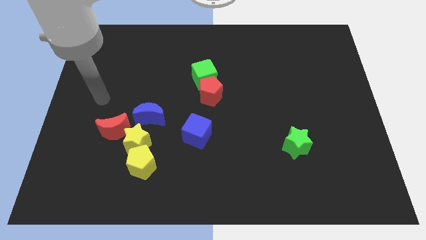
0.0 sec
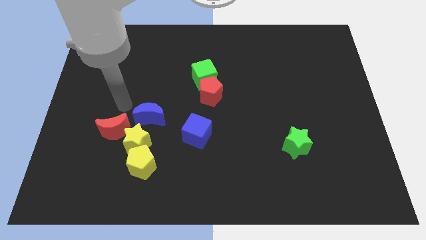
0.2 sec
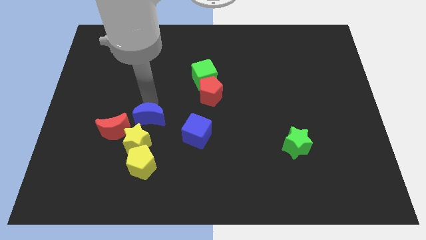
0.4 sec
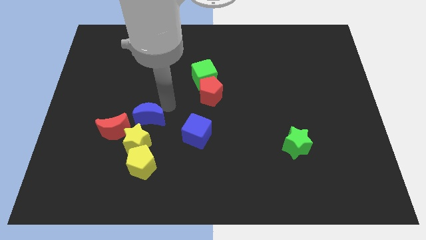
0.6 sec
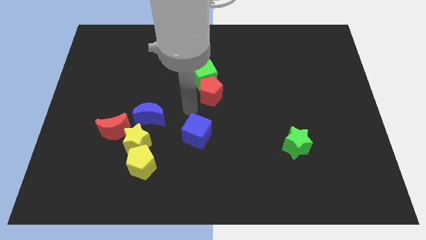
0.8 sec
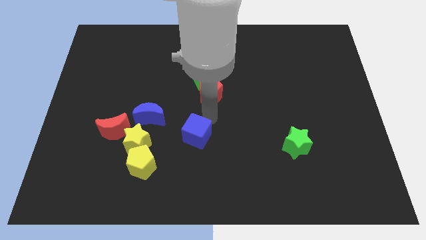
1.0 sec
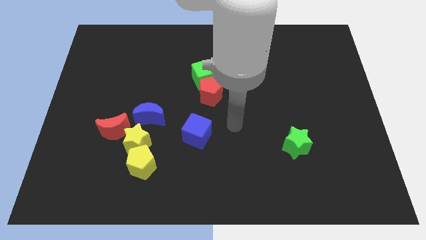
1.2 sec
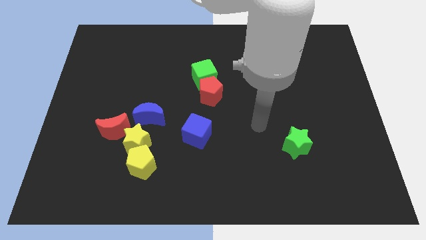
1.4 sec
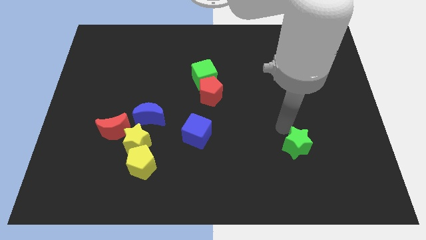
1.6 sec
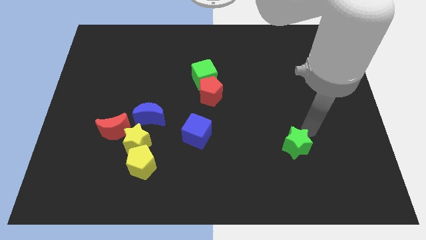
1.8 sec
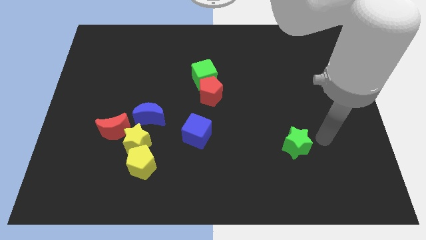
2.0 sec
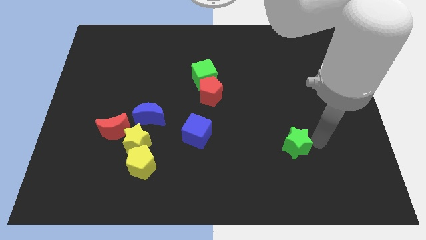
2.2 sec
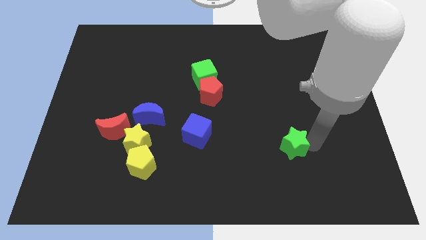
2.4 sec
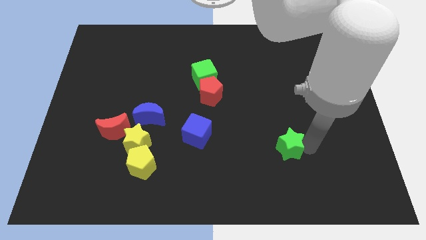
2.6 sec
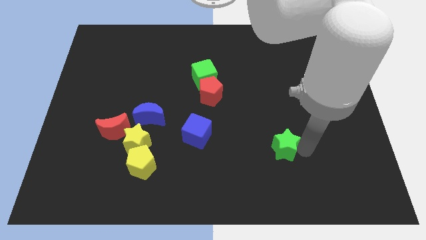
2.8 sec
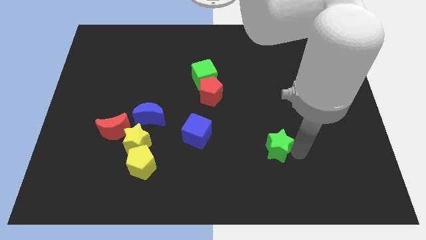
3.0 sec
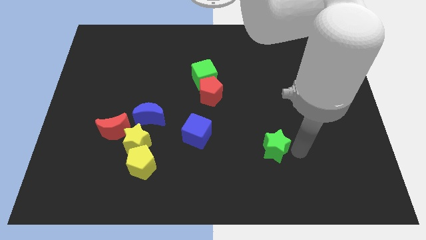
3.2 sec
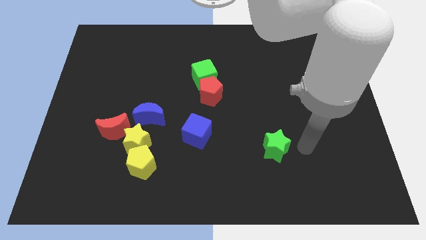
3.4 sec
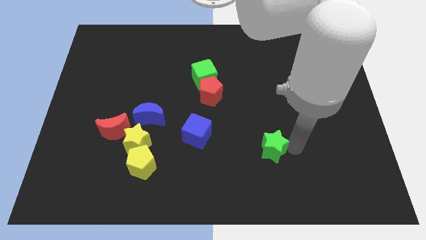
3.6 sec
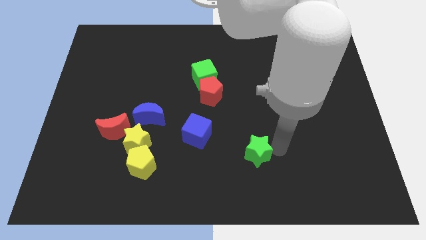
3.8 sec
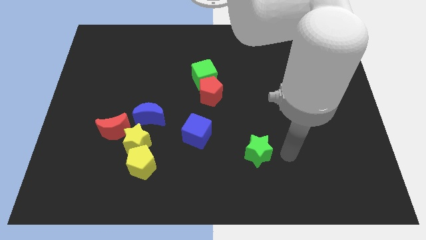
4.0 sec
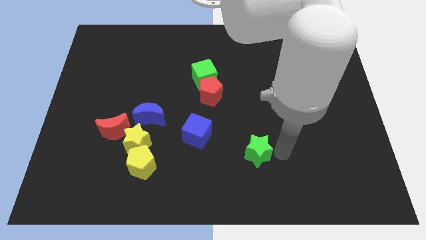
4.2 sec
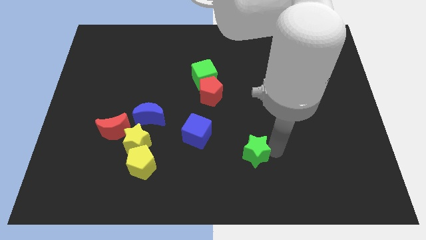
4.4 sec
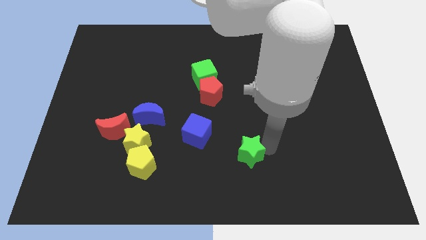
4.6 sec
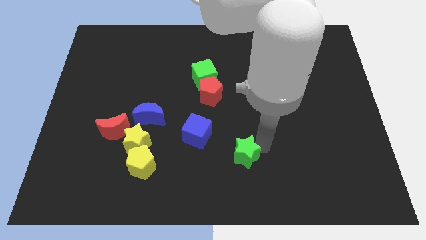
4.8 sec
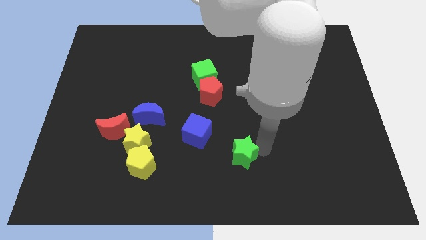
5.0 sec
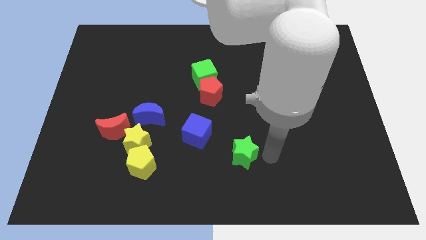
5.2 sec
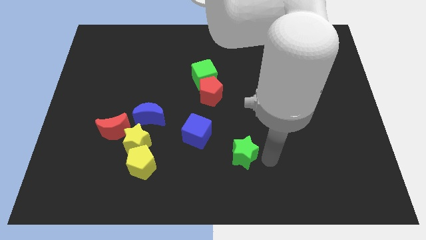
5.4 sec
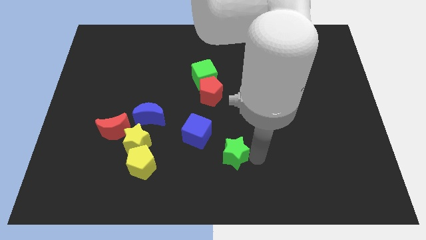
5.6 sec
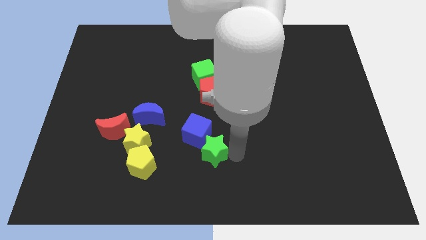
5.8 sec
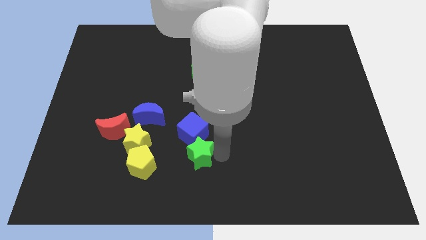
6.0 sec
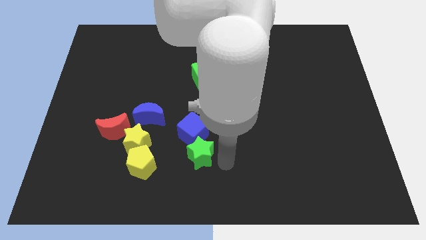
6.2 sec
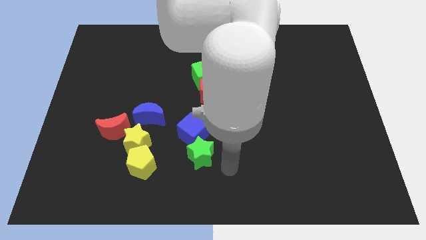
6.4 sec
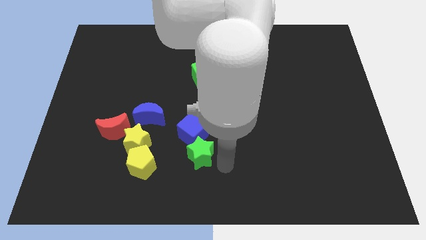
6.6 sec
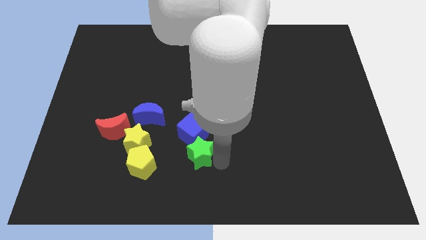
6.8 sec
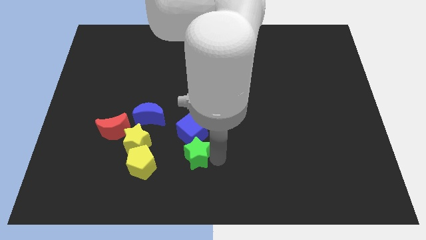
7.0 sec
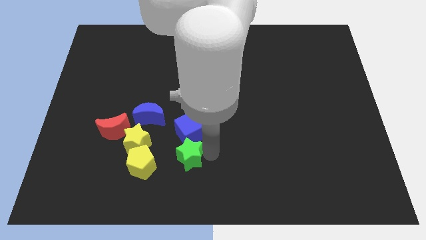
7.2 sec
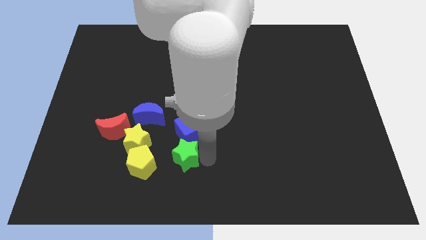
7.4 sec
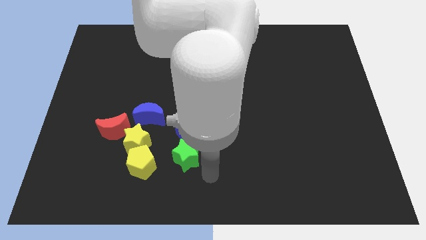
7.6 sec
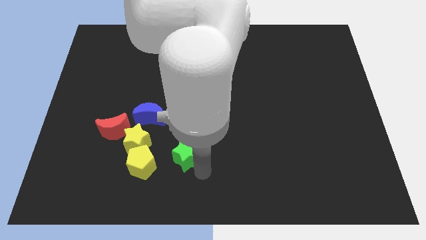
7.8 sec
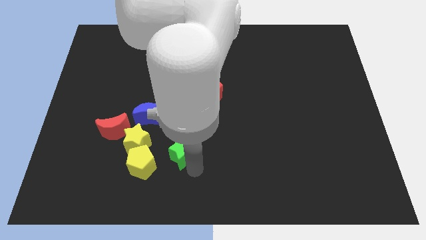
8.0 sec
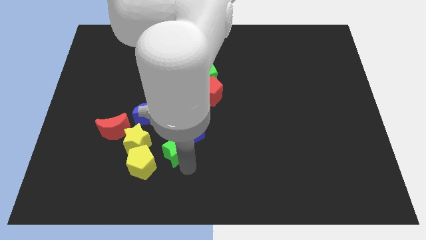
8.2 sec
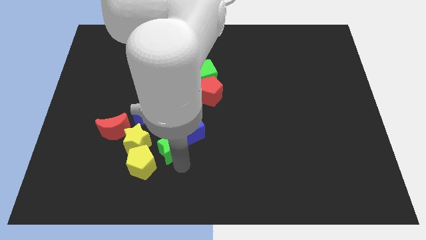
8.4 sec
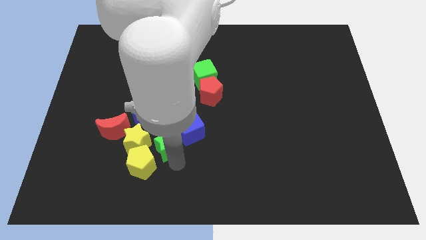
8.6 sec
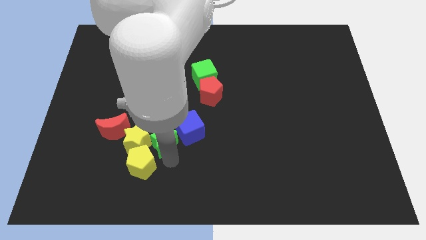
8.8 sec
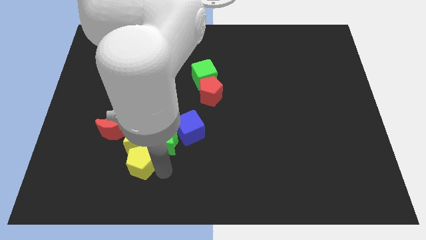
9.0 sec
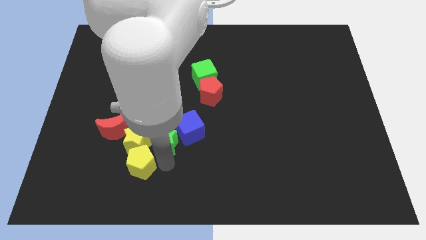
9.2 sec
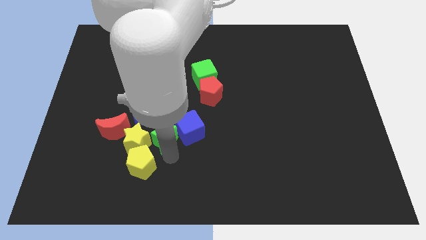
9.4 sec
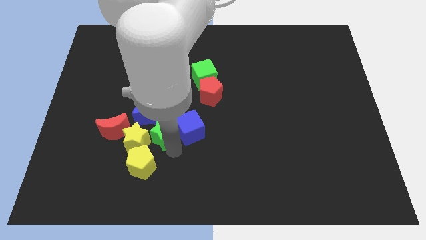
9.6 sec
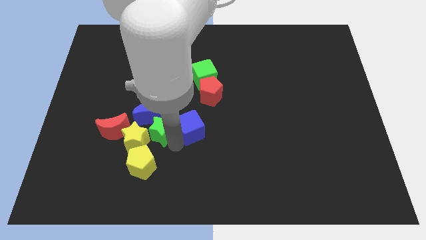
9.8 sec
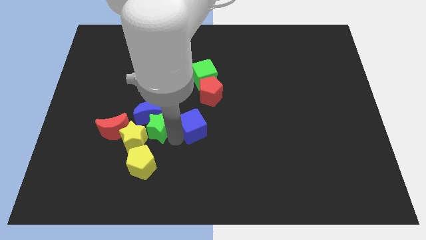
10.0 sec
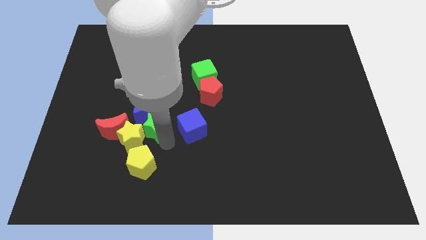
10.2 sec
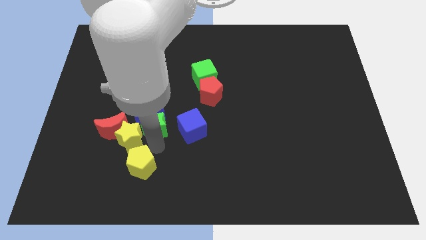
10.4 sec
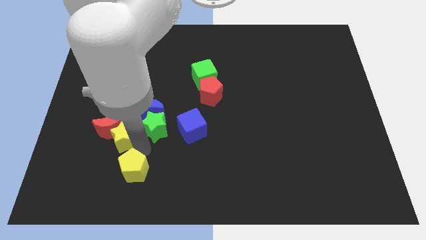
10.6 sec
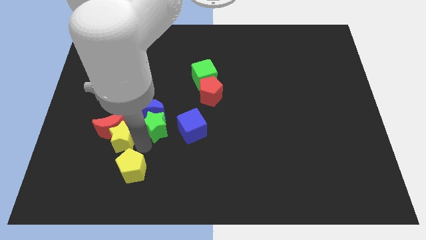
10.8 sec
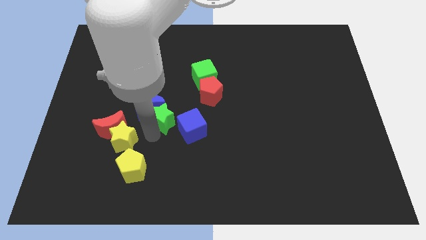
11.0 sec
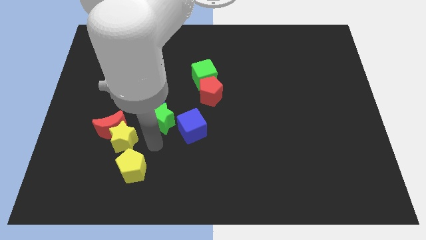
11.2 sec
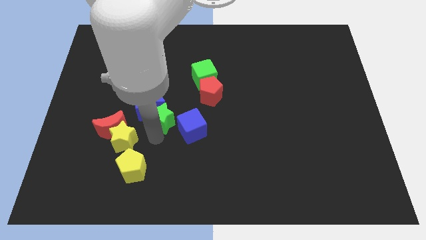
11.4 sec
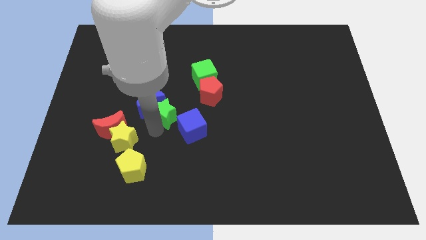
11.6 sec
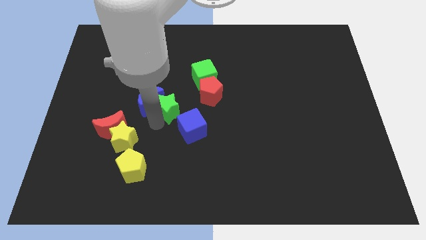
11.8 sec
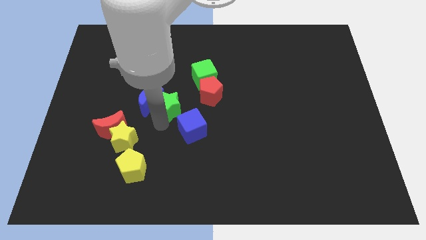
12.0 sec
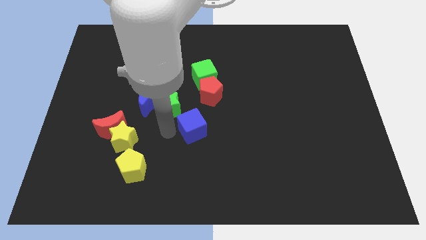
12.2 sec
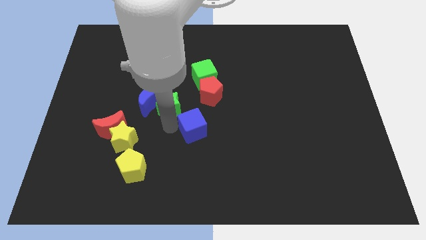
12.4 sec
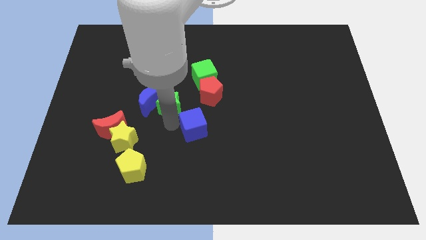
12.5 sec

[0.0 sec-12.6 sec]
put the green star to the top right of the blue moon

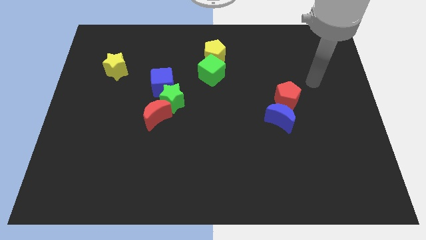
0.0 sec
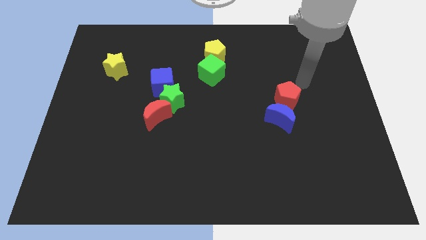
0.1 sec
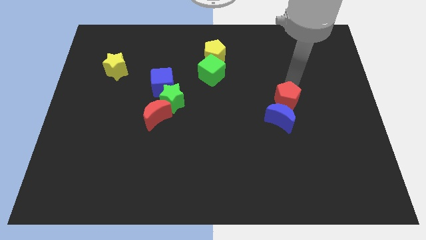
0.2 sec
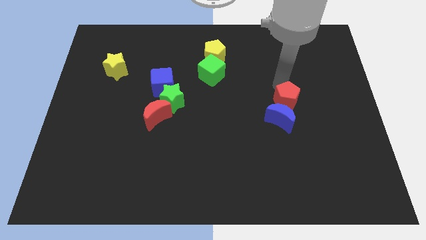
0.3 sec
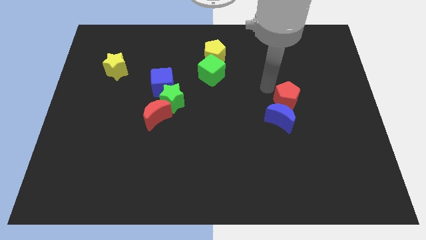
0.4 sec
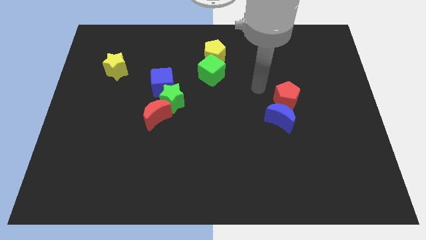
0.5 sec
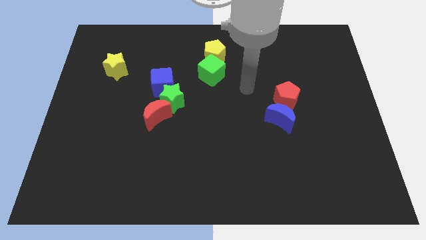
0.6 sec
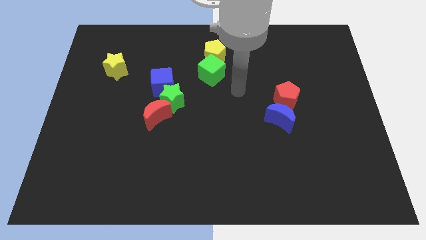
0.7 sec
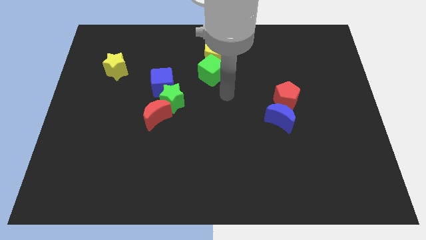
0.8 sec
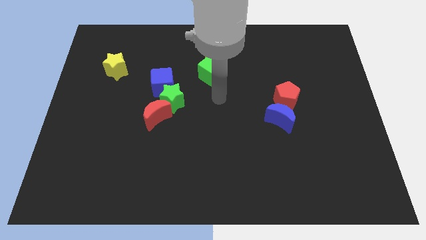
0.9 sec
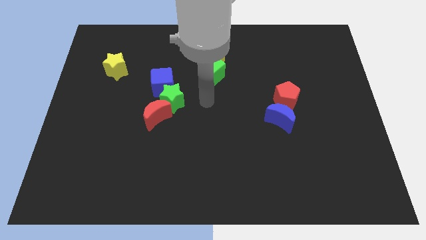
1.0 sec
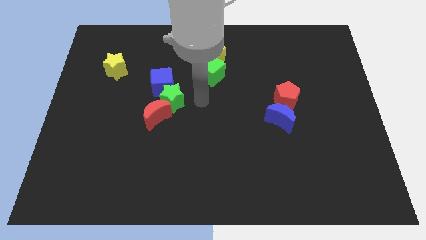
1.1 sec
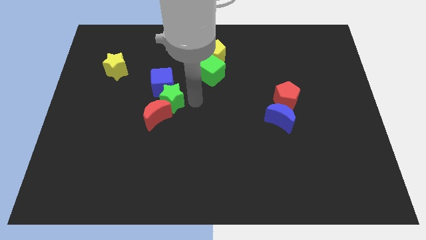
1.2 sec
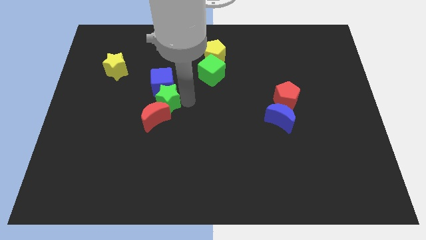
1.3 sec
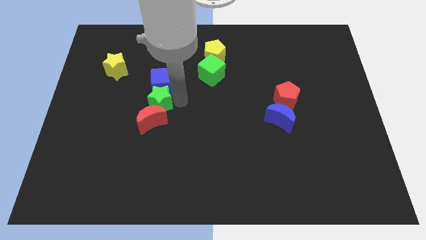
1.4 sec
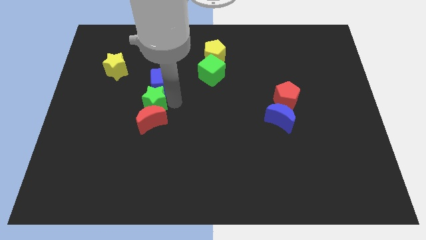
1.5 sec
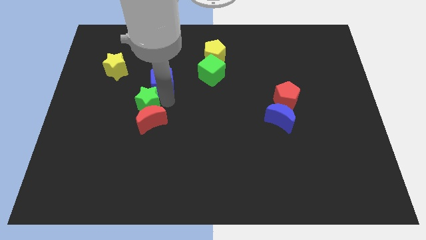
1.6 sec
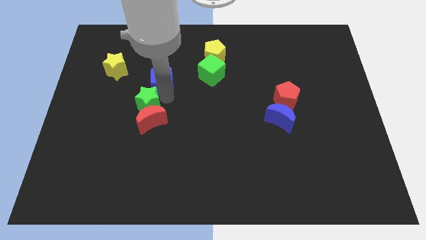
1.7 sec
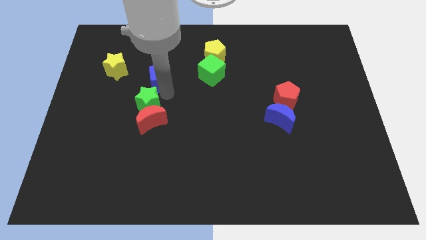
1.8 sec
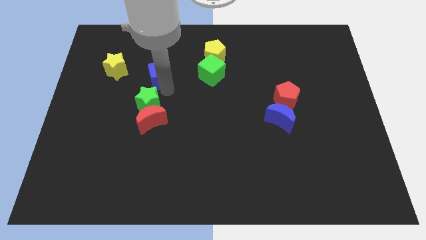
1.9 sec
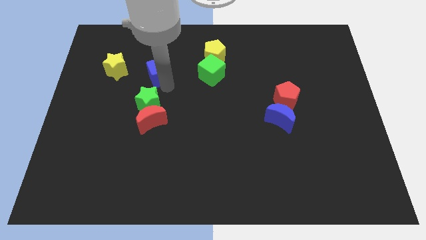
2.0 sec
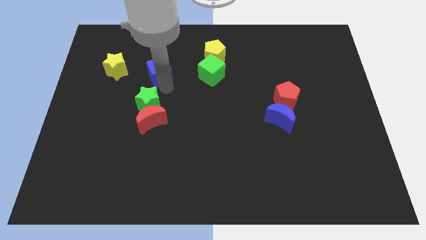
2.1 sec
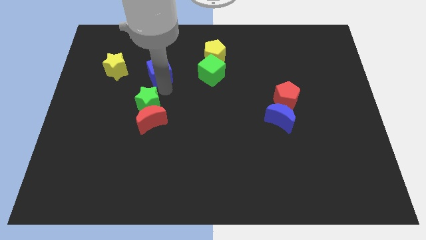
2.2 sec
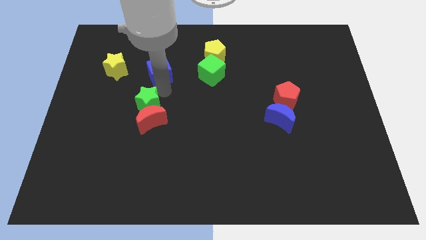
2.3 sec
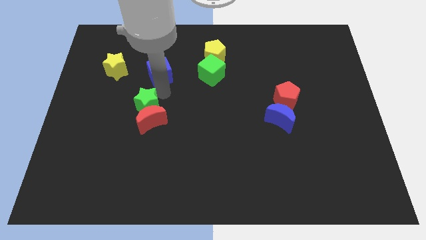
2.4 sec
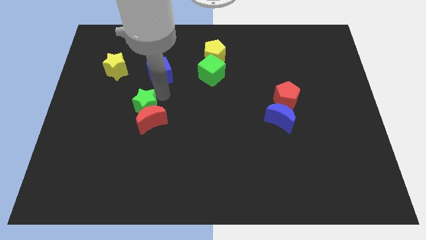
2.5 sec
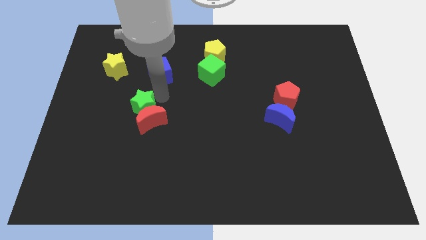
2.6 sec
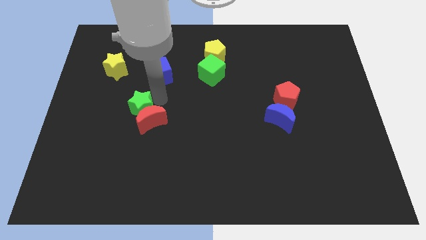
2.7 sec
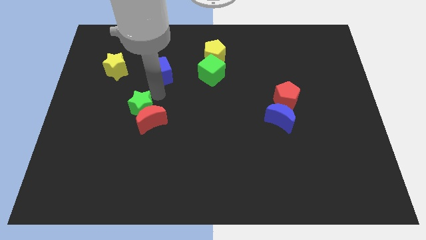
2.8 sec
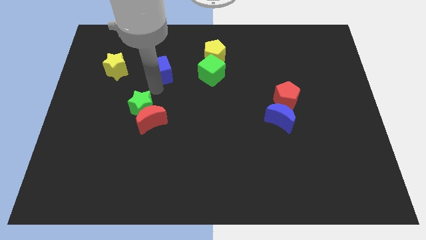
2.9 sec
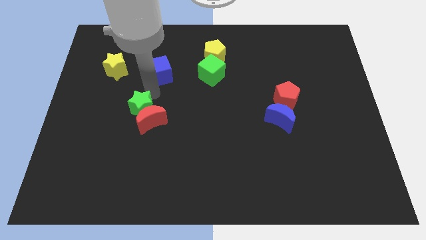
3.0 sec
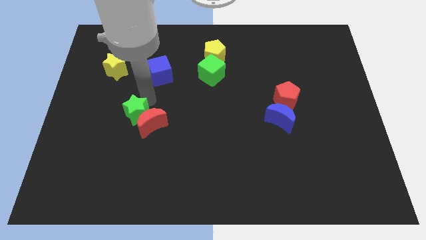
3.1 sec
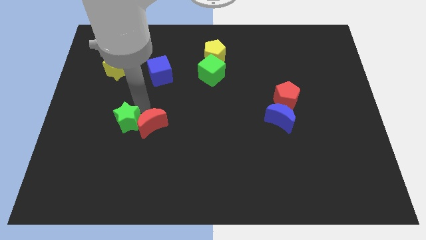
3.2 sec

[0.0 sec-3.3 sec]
push the green star diagonally down and to the left of the red moon
